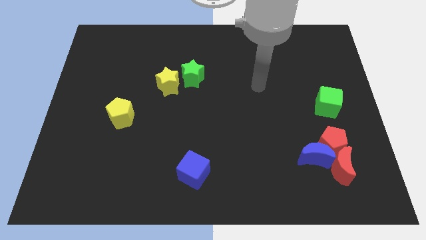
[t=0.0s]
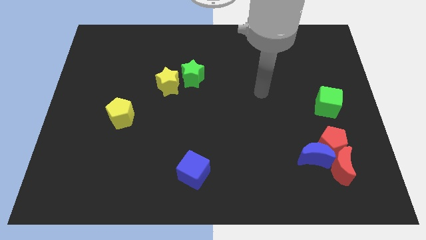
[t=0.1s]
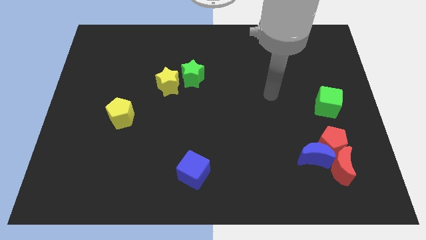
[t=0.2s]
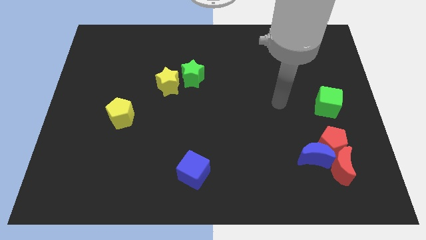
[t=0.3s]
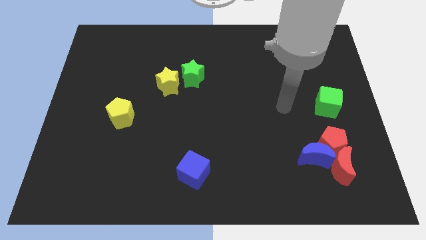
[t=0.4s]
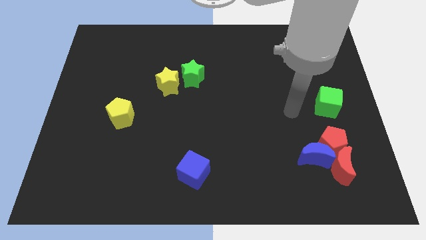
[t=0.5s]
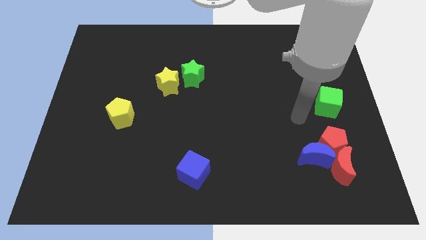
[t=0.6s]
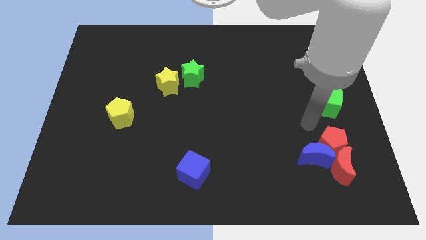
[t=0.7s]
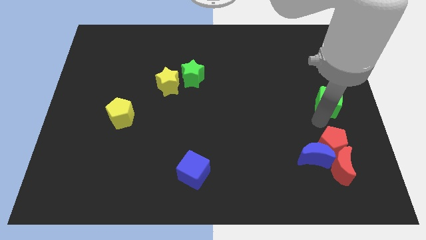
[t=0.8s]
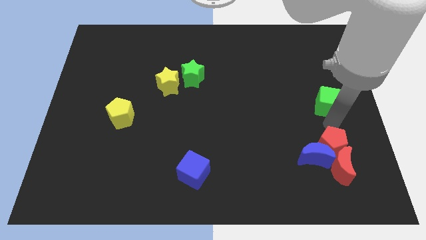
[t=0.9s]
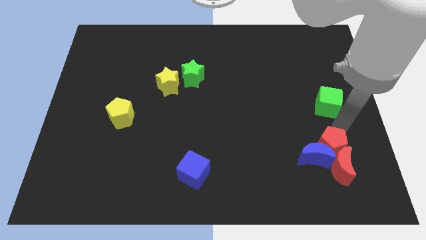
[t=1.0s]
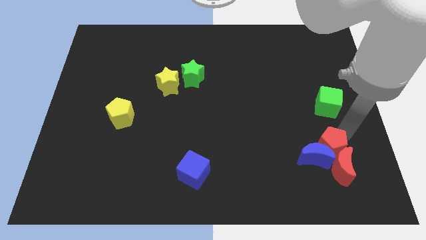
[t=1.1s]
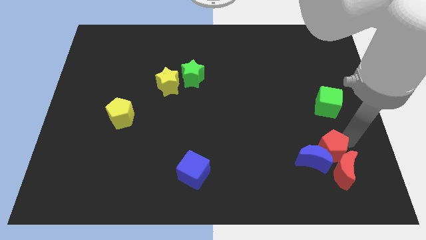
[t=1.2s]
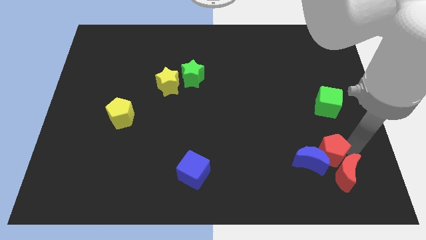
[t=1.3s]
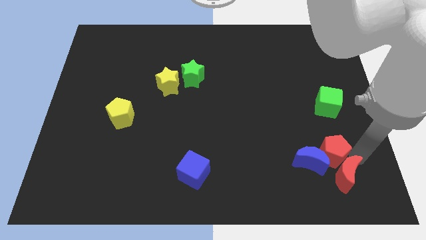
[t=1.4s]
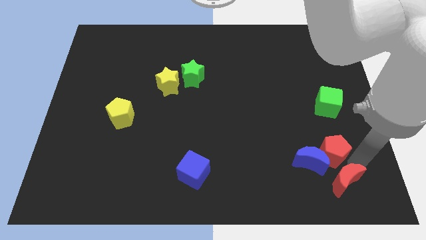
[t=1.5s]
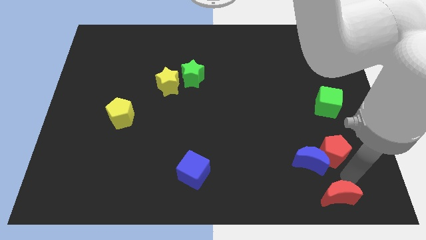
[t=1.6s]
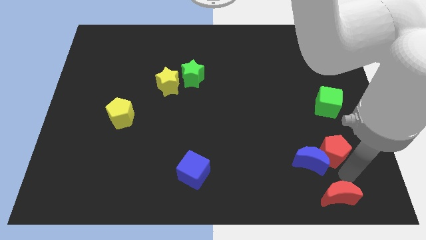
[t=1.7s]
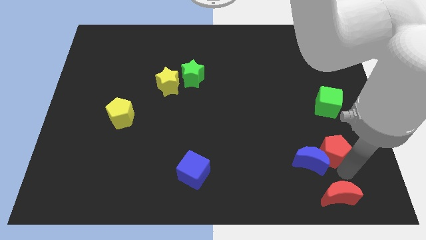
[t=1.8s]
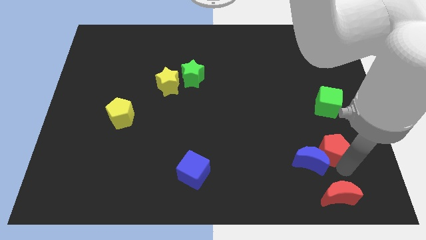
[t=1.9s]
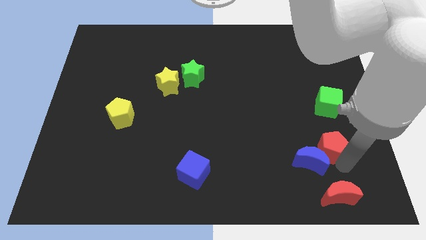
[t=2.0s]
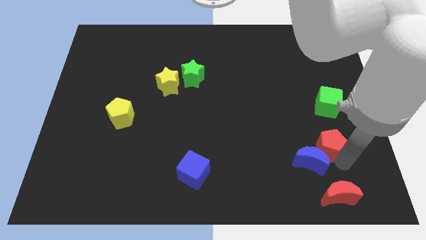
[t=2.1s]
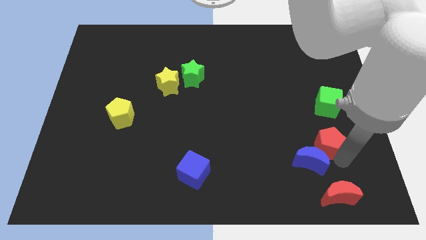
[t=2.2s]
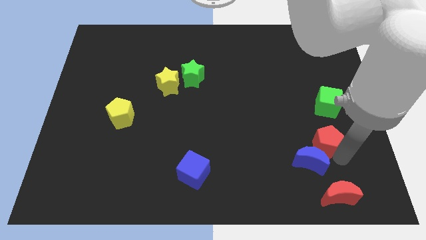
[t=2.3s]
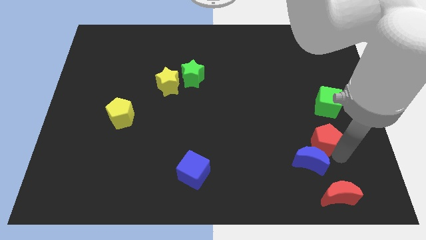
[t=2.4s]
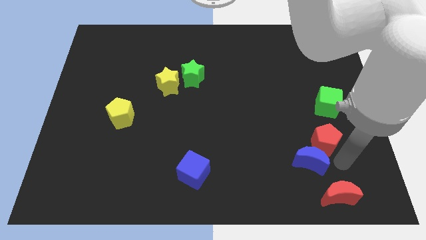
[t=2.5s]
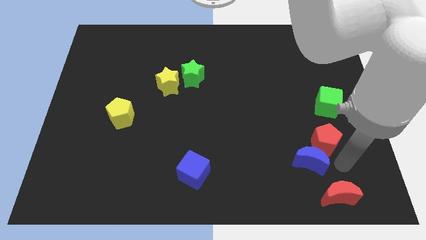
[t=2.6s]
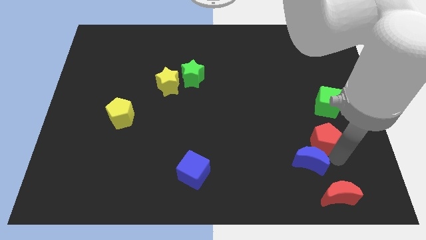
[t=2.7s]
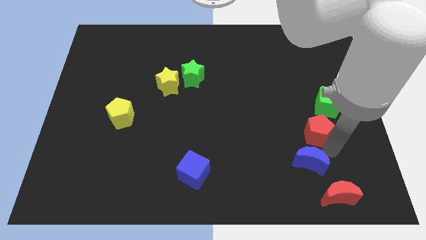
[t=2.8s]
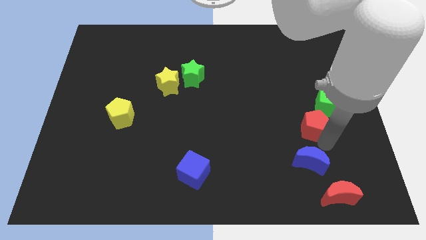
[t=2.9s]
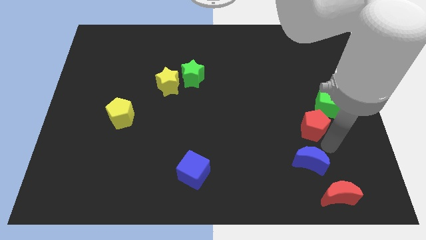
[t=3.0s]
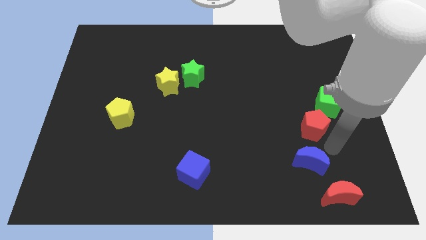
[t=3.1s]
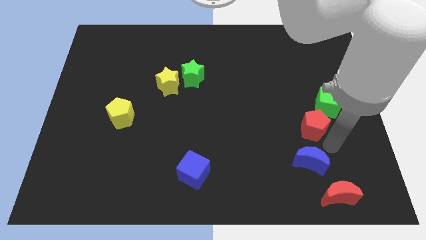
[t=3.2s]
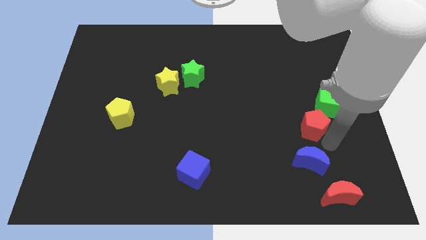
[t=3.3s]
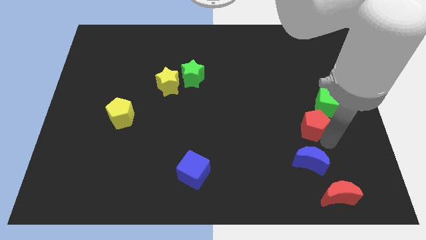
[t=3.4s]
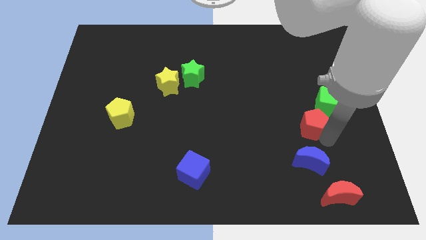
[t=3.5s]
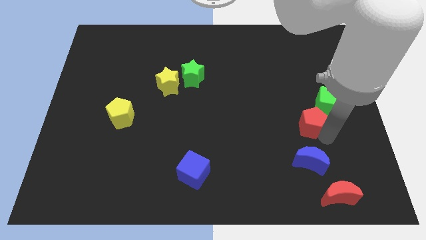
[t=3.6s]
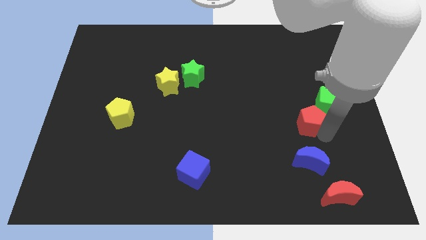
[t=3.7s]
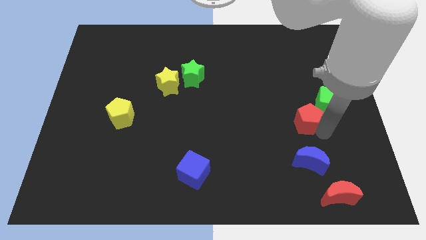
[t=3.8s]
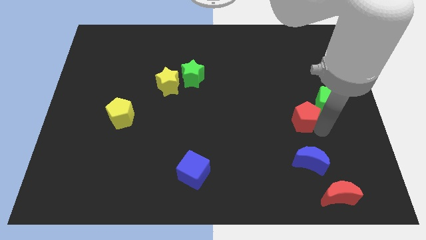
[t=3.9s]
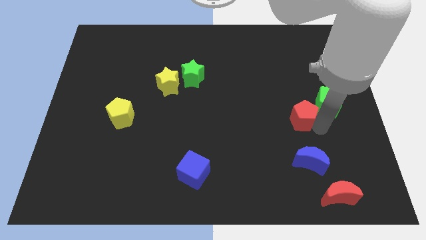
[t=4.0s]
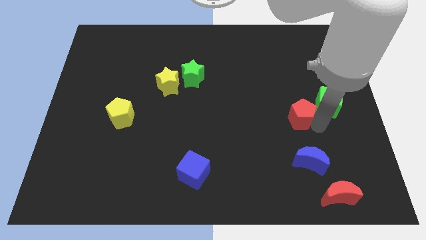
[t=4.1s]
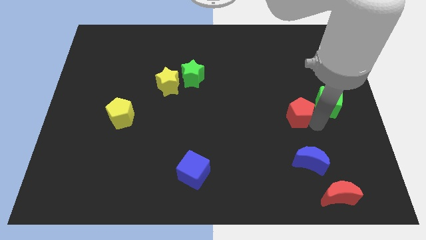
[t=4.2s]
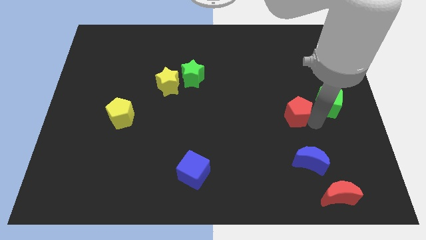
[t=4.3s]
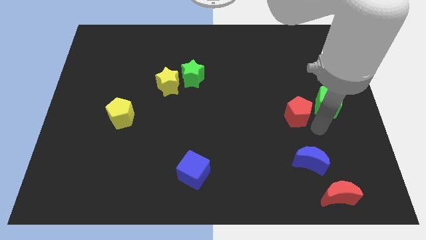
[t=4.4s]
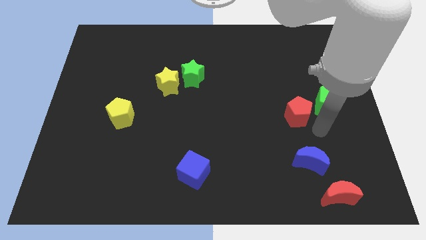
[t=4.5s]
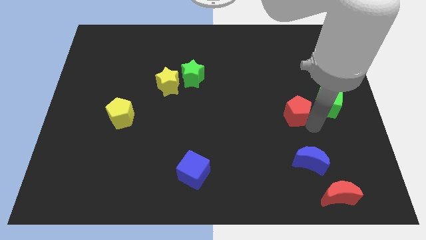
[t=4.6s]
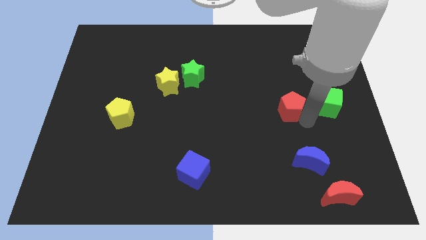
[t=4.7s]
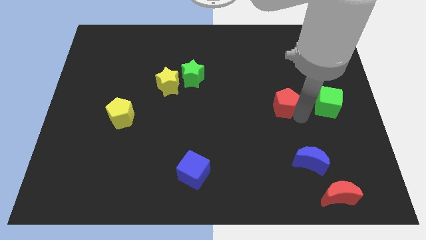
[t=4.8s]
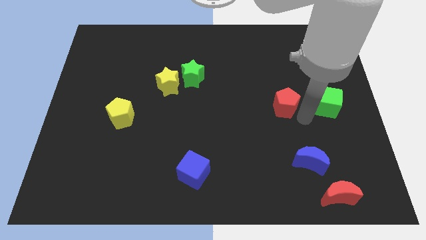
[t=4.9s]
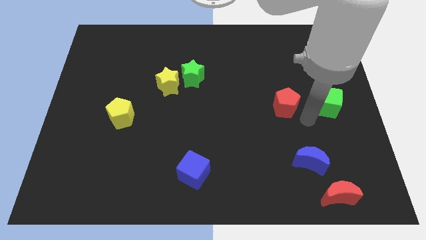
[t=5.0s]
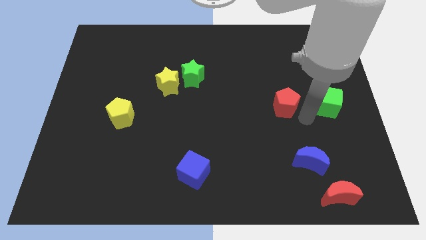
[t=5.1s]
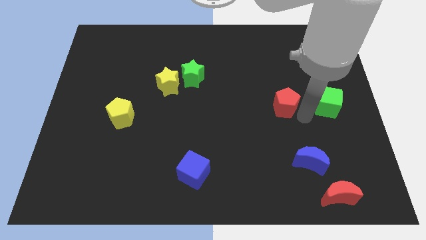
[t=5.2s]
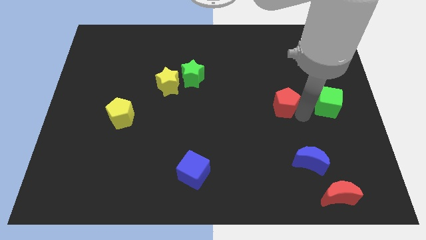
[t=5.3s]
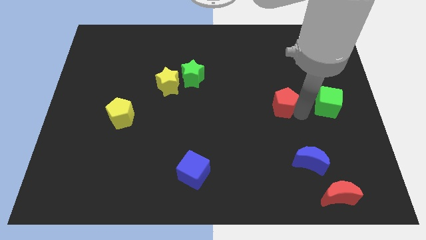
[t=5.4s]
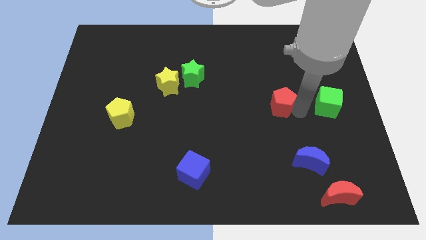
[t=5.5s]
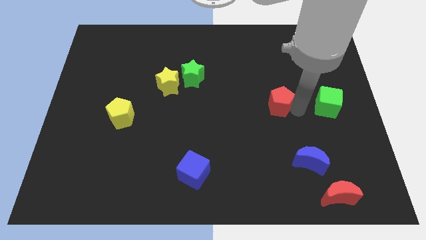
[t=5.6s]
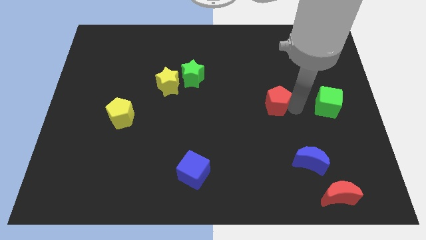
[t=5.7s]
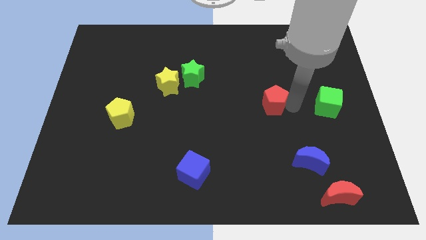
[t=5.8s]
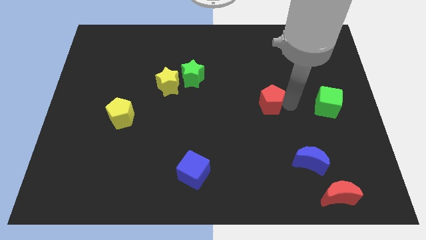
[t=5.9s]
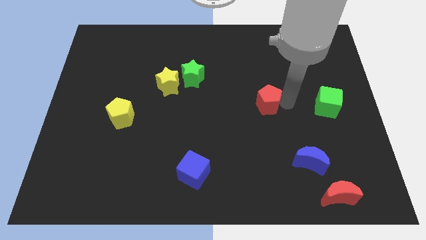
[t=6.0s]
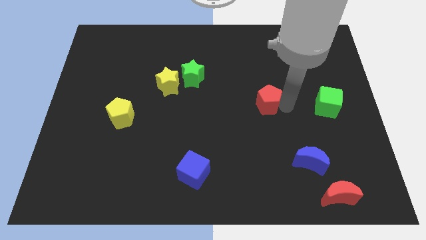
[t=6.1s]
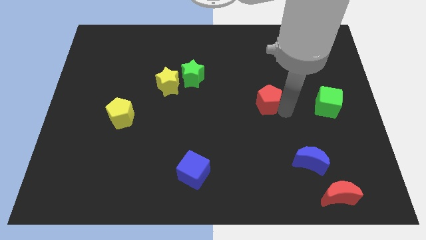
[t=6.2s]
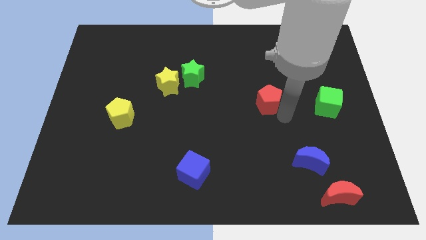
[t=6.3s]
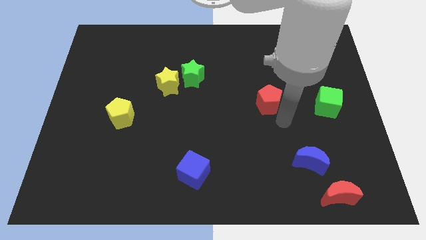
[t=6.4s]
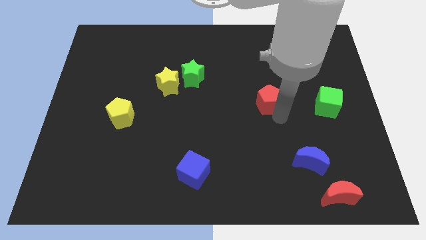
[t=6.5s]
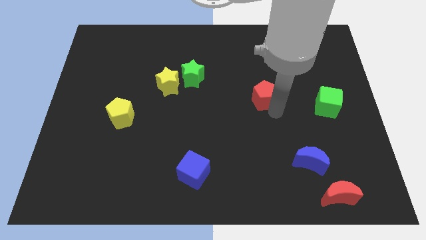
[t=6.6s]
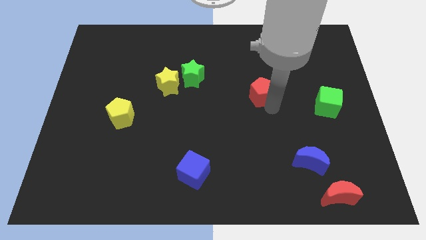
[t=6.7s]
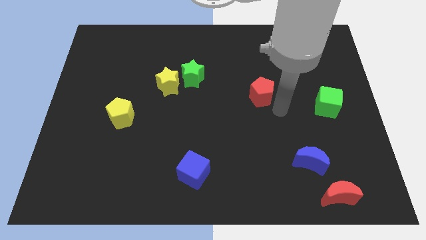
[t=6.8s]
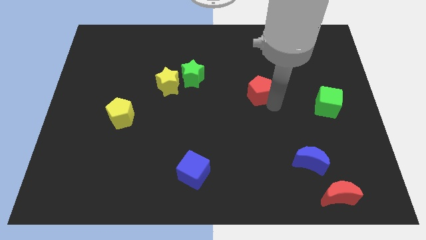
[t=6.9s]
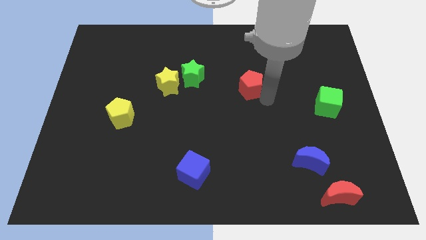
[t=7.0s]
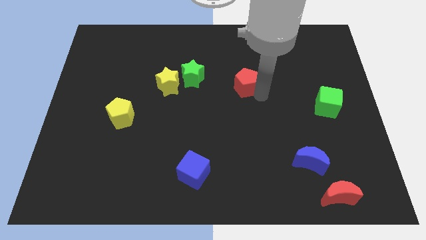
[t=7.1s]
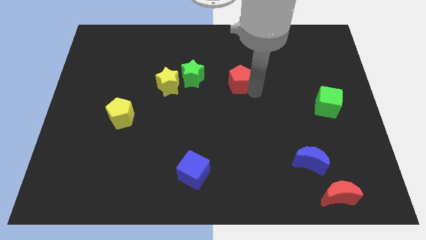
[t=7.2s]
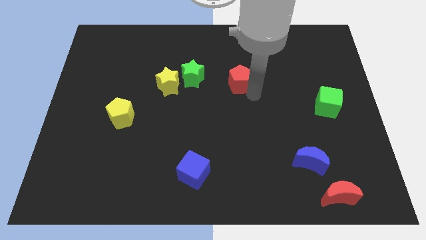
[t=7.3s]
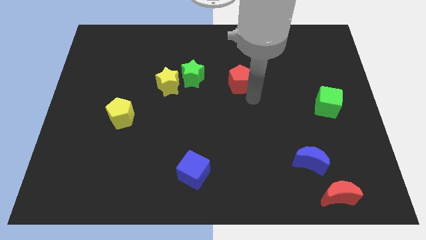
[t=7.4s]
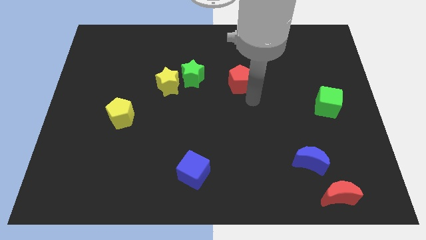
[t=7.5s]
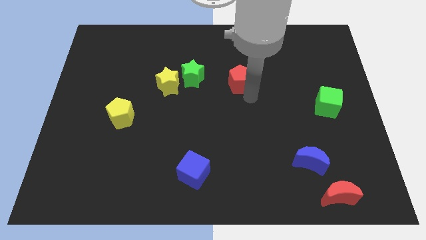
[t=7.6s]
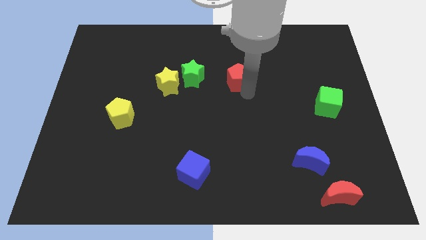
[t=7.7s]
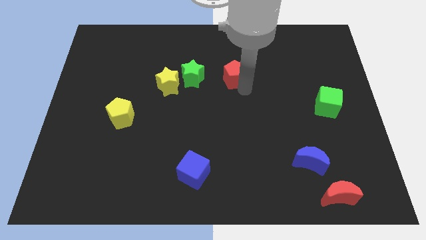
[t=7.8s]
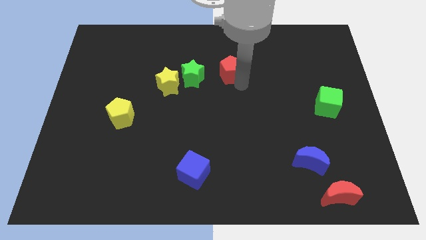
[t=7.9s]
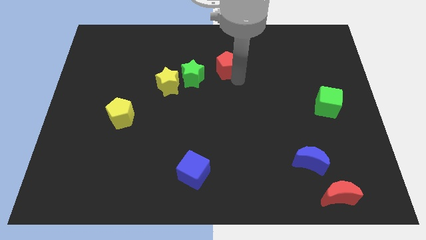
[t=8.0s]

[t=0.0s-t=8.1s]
put the red pentagon to the top right of the green star
